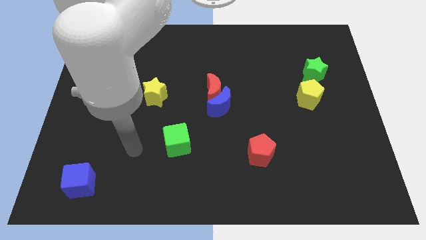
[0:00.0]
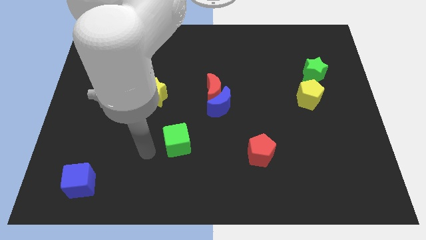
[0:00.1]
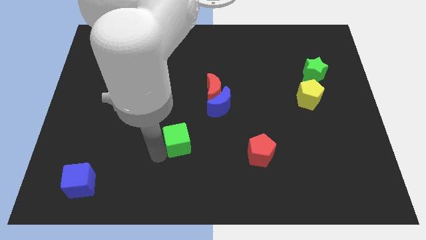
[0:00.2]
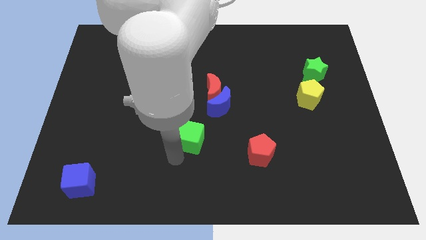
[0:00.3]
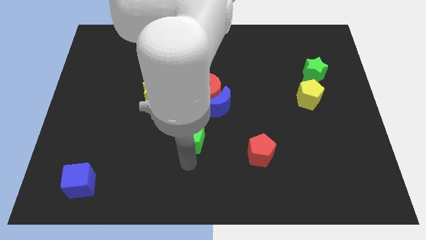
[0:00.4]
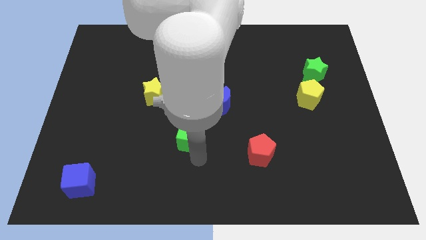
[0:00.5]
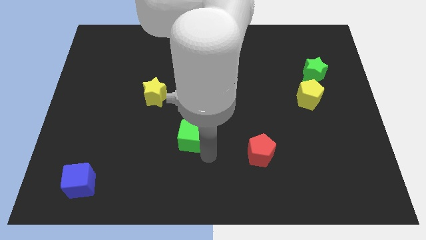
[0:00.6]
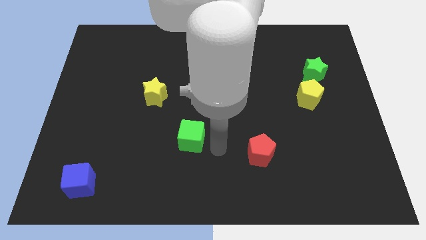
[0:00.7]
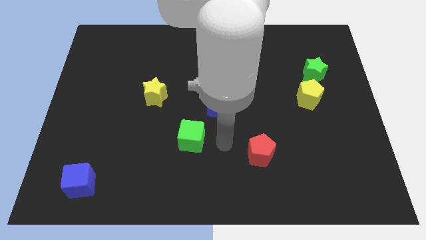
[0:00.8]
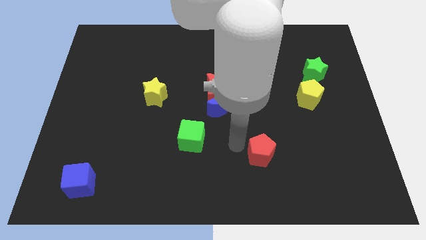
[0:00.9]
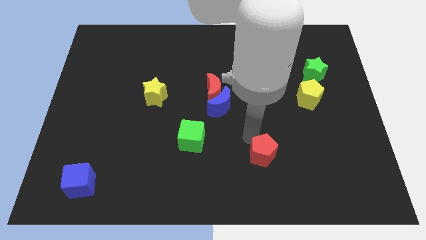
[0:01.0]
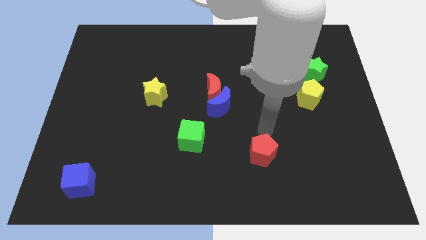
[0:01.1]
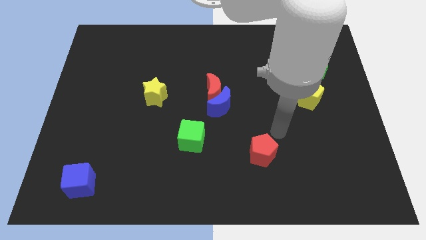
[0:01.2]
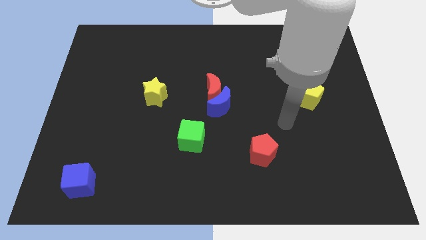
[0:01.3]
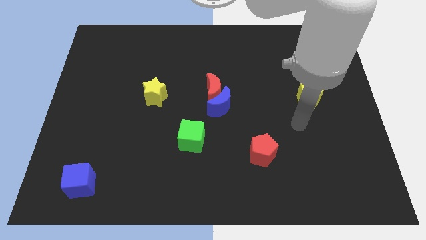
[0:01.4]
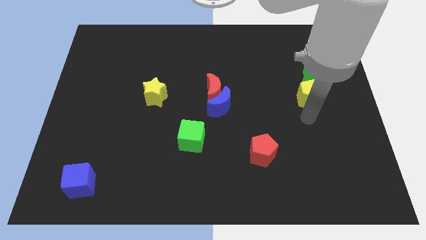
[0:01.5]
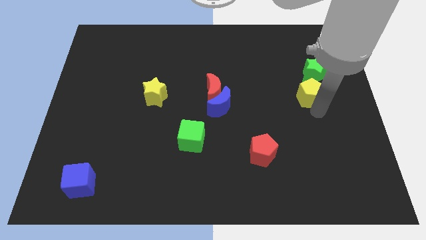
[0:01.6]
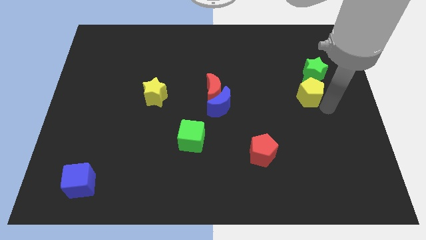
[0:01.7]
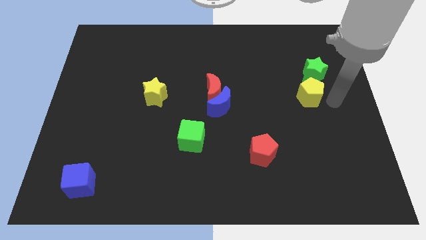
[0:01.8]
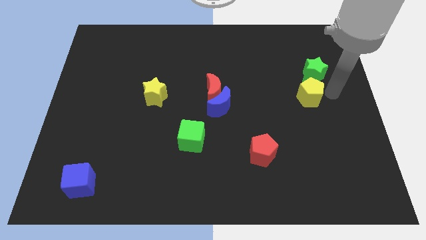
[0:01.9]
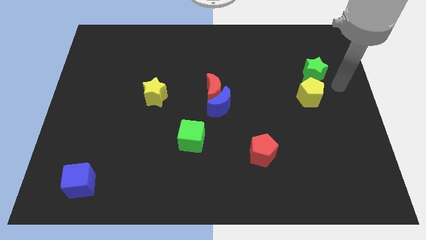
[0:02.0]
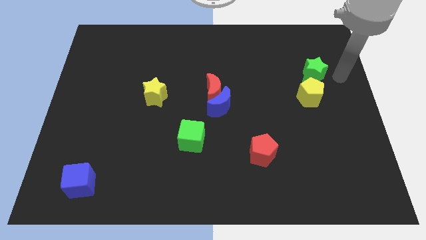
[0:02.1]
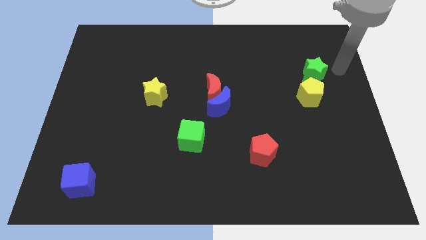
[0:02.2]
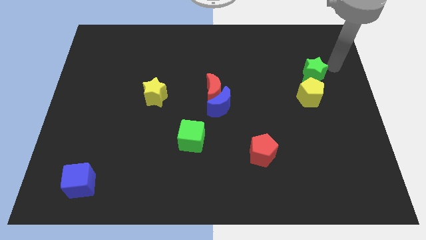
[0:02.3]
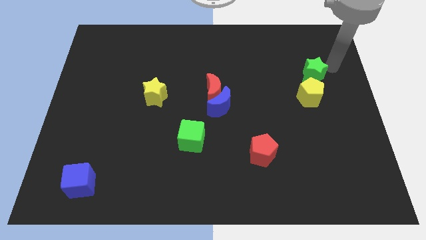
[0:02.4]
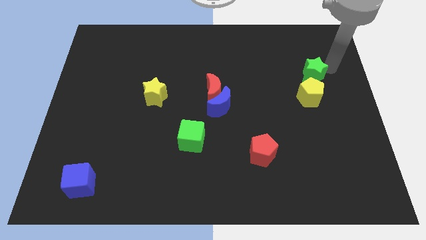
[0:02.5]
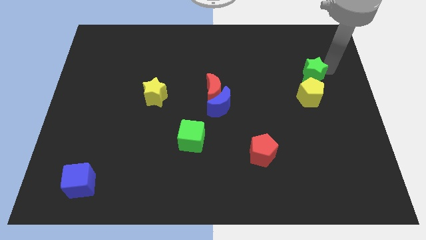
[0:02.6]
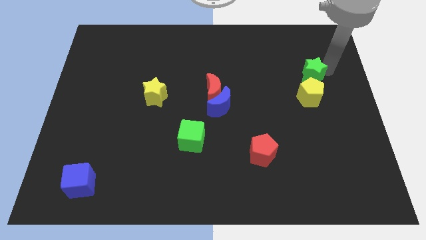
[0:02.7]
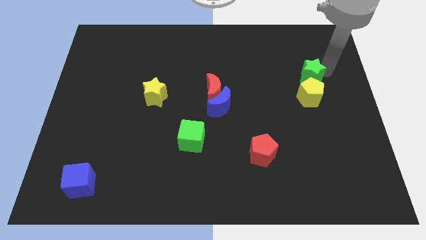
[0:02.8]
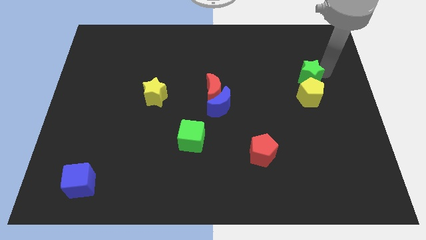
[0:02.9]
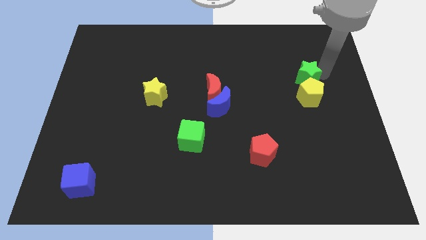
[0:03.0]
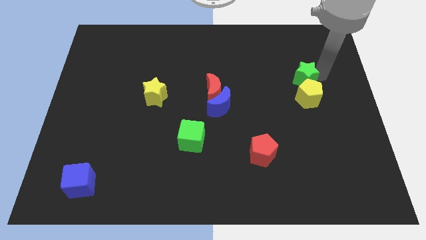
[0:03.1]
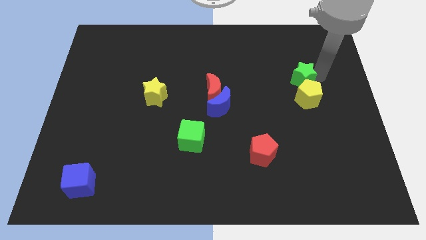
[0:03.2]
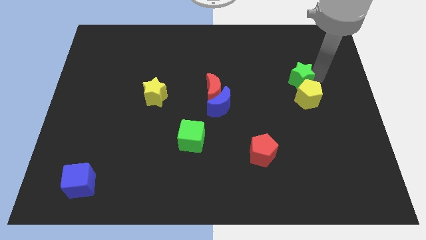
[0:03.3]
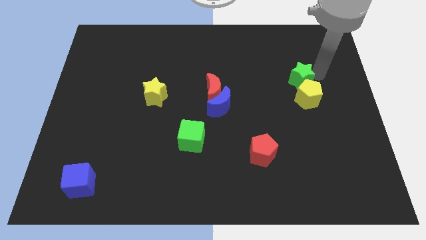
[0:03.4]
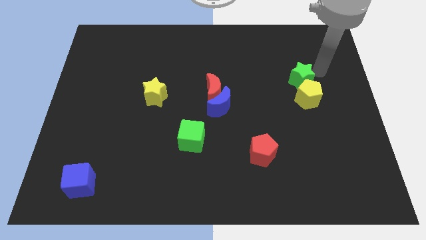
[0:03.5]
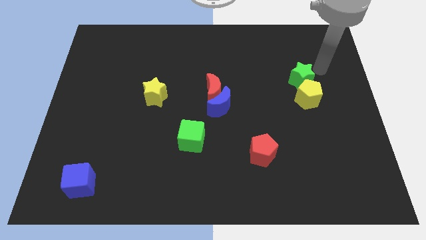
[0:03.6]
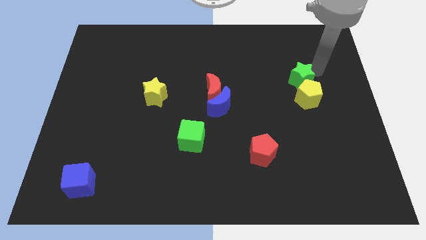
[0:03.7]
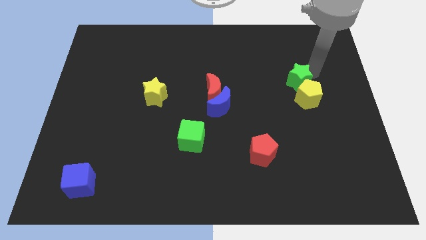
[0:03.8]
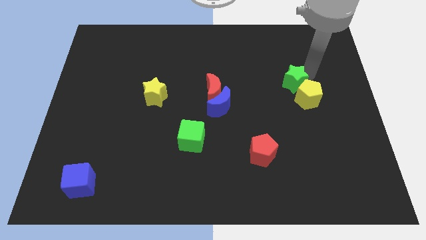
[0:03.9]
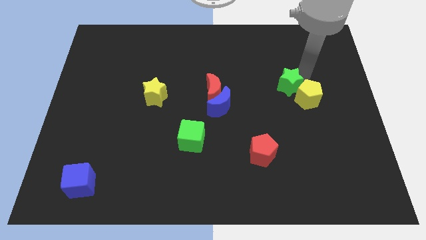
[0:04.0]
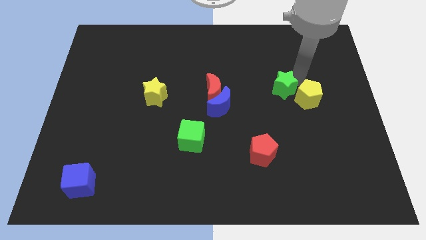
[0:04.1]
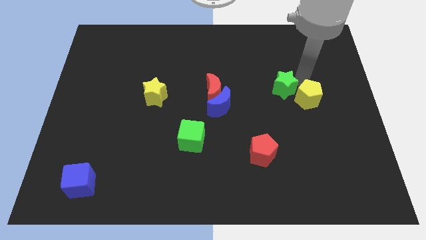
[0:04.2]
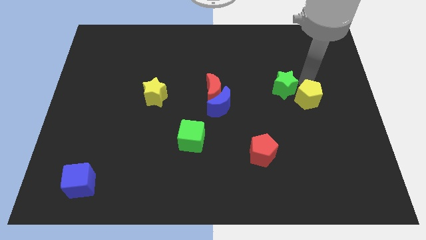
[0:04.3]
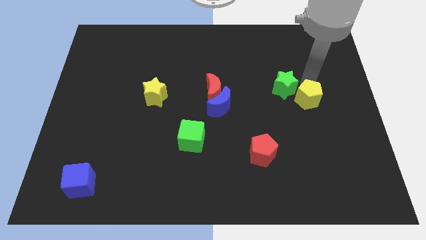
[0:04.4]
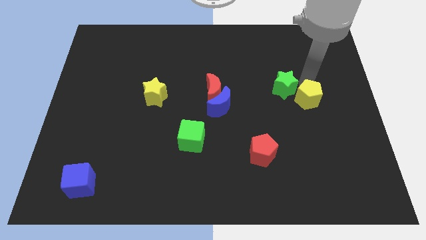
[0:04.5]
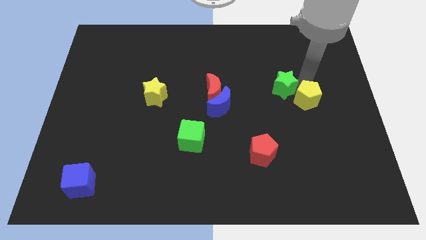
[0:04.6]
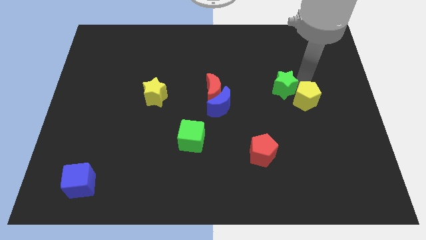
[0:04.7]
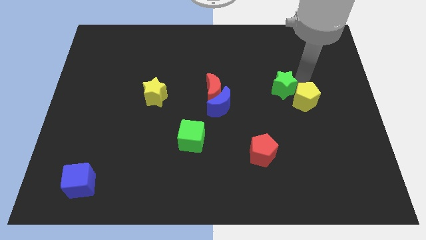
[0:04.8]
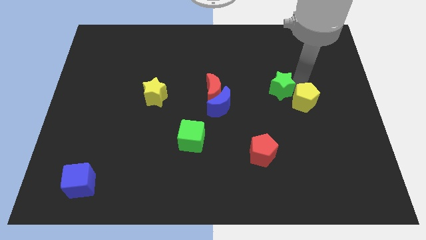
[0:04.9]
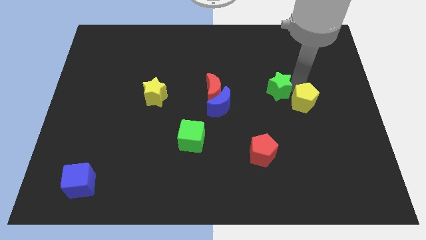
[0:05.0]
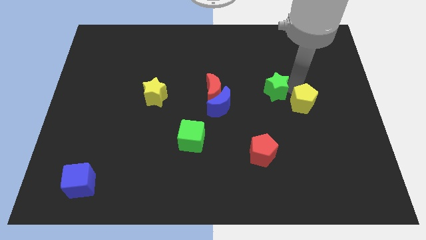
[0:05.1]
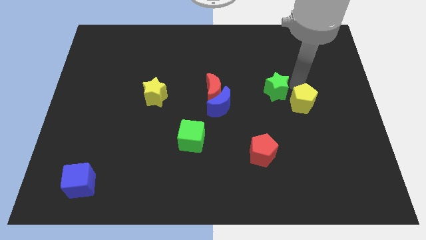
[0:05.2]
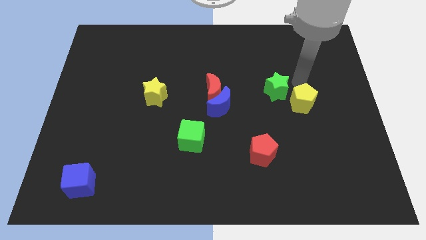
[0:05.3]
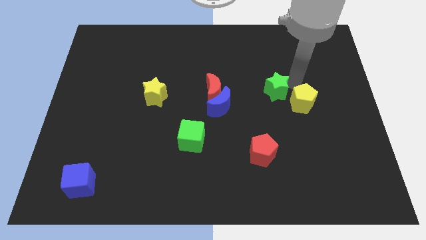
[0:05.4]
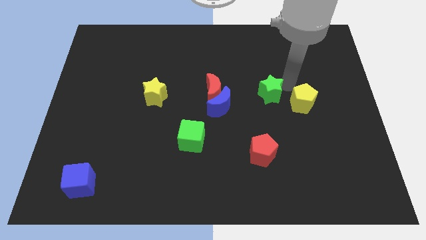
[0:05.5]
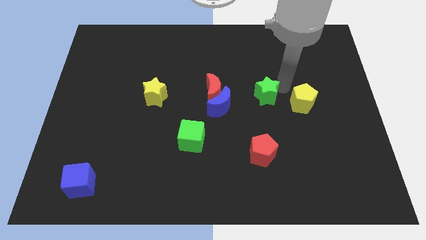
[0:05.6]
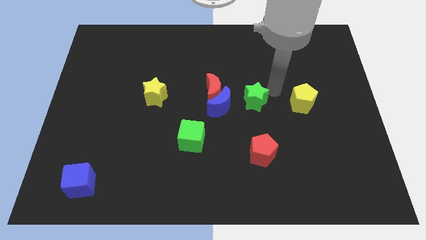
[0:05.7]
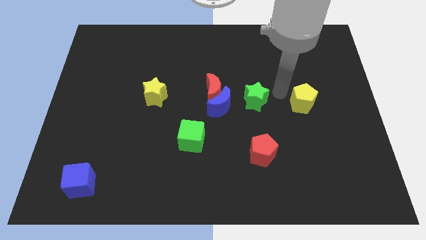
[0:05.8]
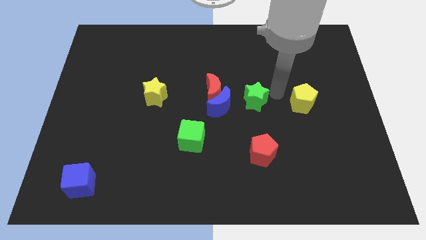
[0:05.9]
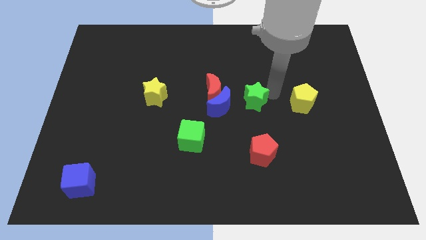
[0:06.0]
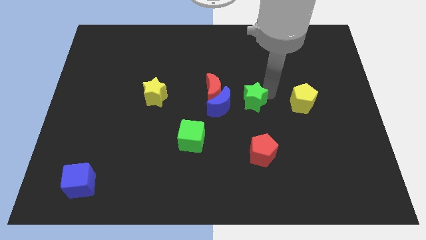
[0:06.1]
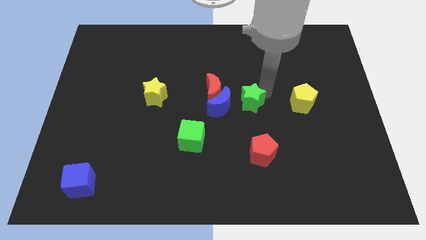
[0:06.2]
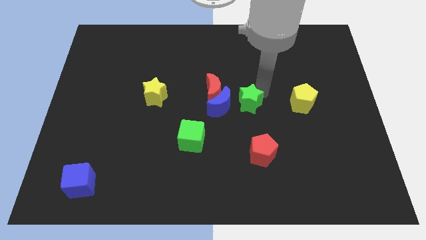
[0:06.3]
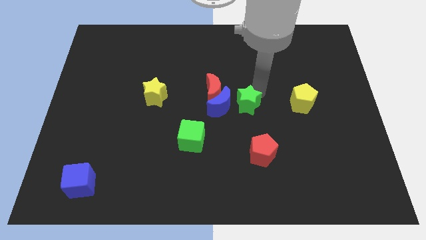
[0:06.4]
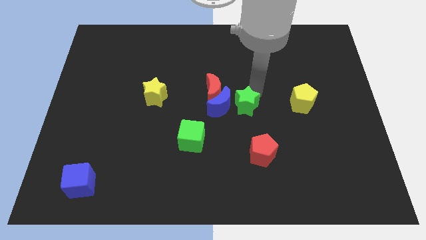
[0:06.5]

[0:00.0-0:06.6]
push the green star close to the blue moon

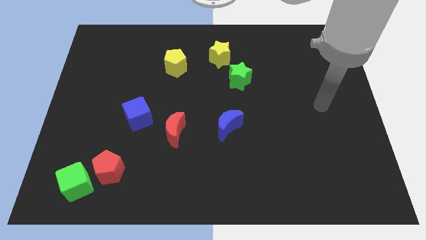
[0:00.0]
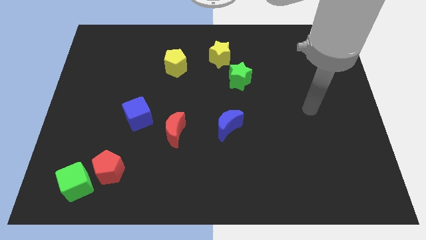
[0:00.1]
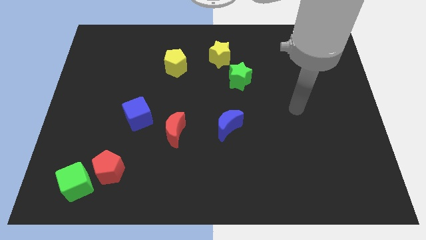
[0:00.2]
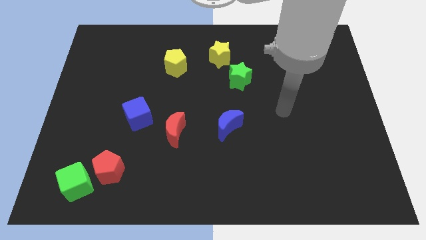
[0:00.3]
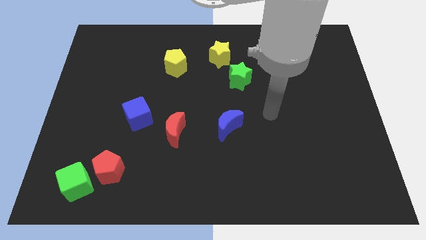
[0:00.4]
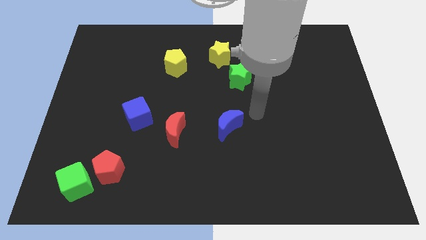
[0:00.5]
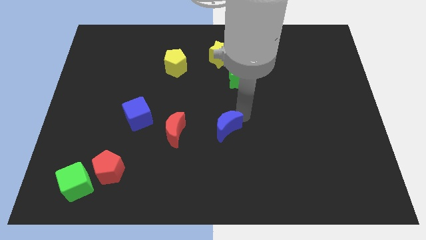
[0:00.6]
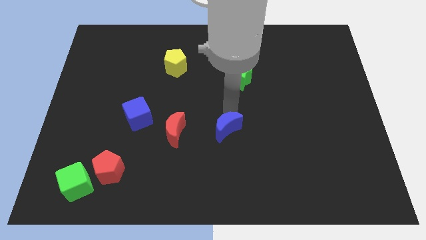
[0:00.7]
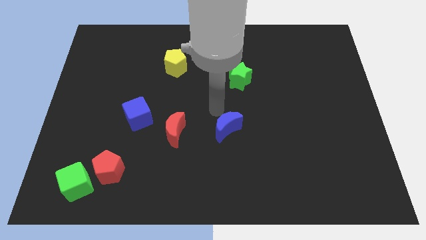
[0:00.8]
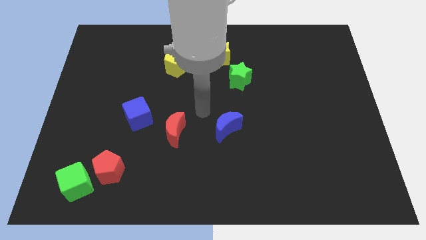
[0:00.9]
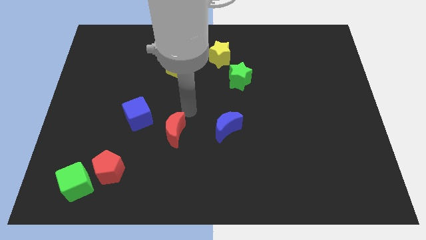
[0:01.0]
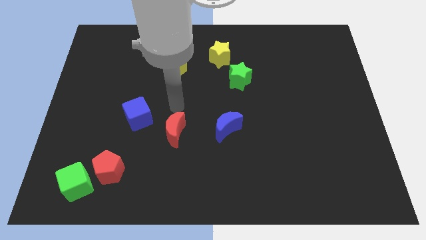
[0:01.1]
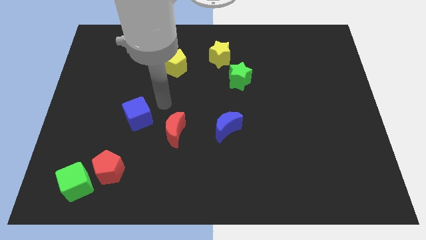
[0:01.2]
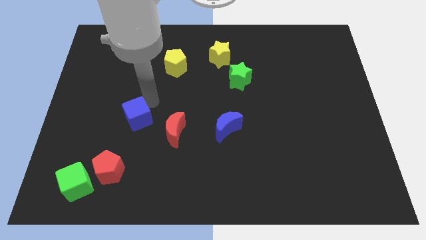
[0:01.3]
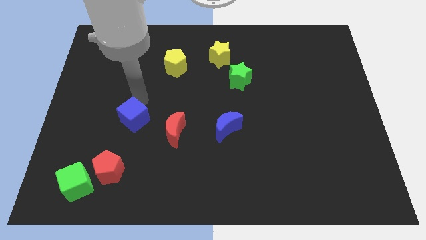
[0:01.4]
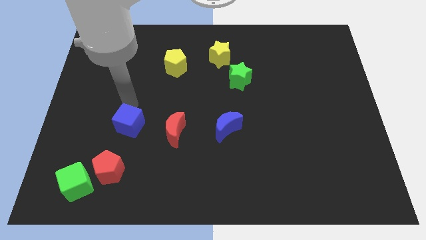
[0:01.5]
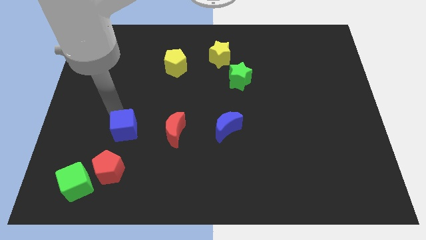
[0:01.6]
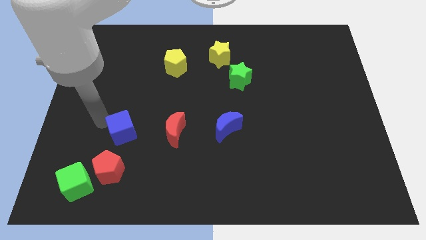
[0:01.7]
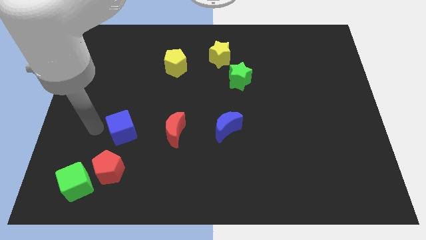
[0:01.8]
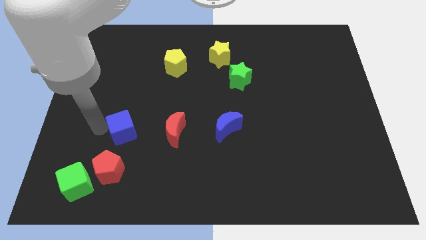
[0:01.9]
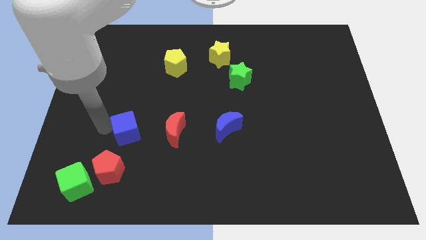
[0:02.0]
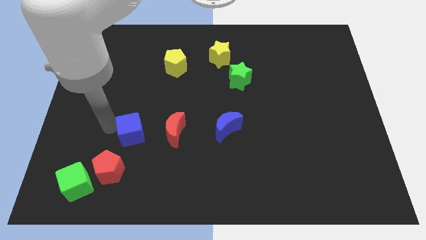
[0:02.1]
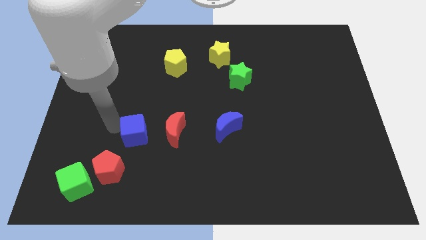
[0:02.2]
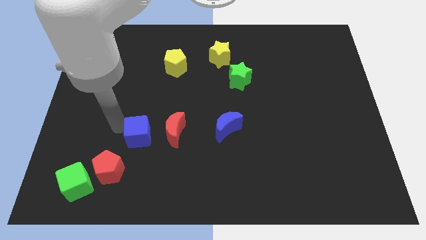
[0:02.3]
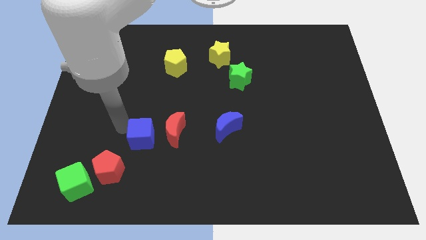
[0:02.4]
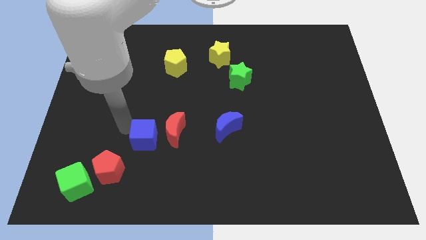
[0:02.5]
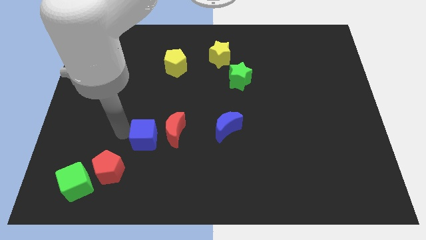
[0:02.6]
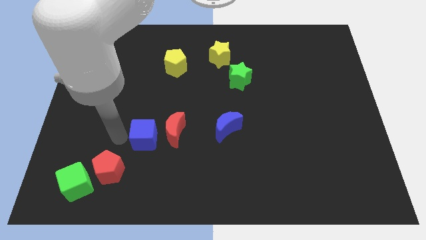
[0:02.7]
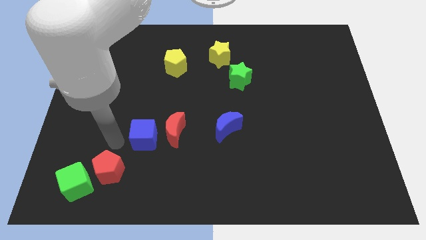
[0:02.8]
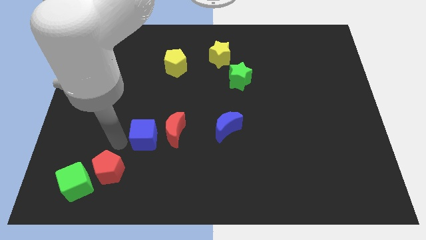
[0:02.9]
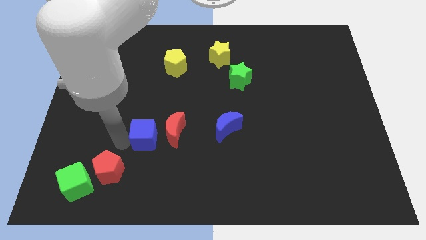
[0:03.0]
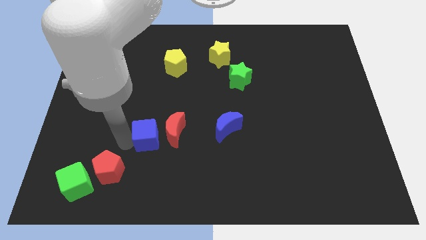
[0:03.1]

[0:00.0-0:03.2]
move the blue cube next to the red moon
